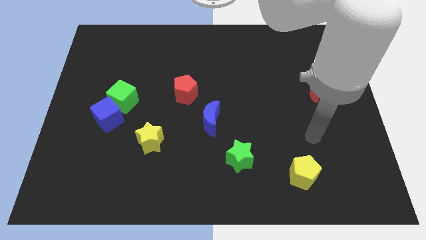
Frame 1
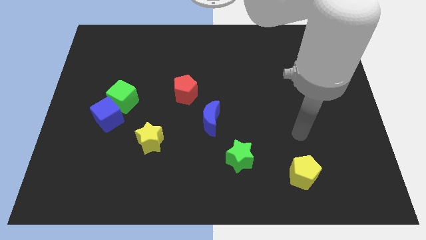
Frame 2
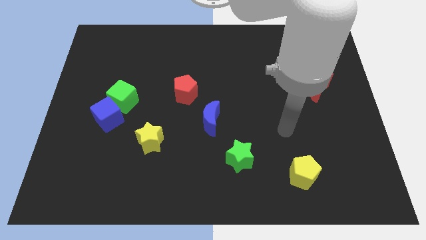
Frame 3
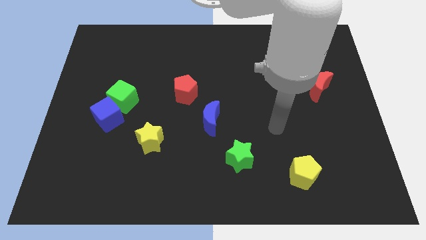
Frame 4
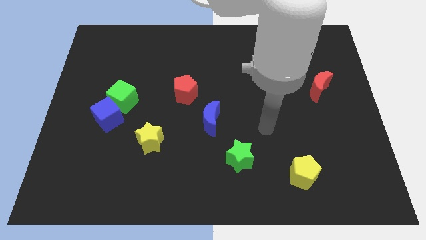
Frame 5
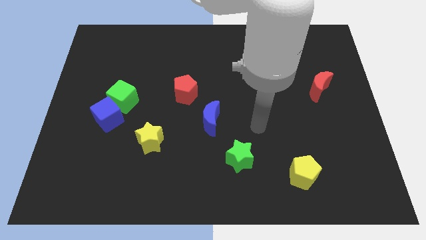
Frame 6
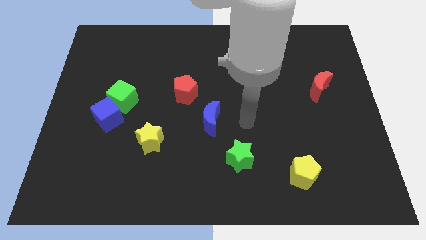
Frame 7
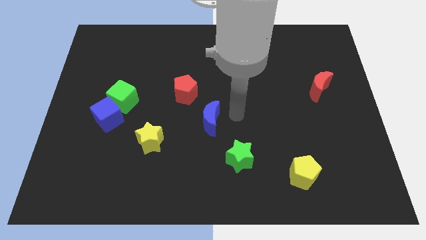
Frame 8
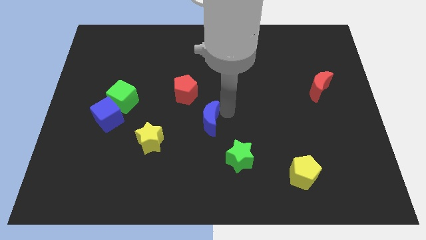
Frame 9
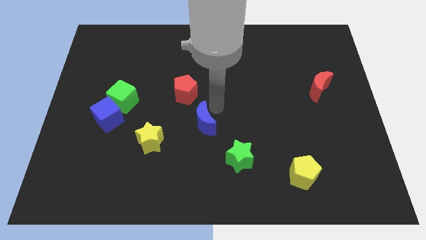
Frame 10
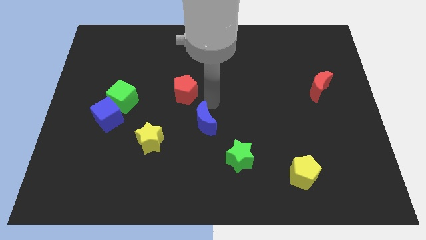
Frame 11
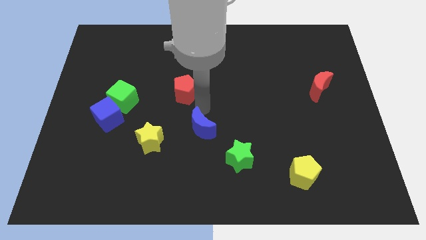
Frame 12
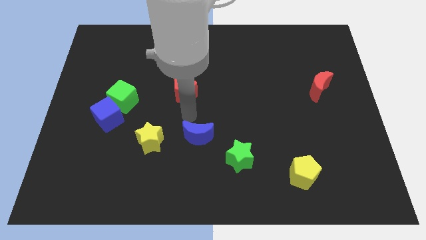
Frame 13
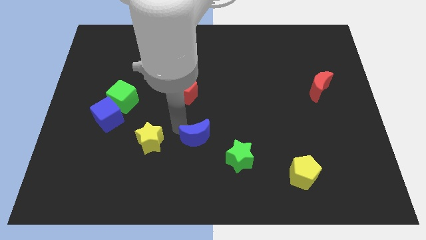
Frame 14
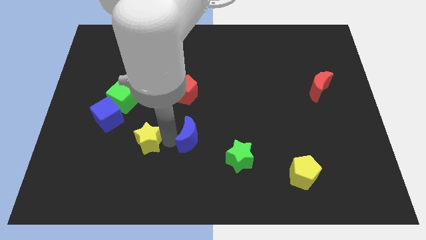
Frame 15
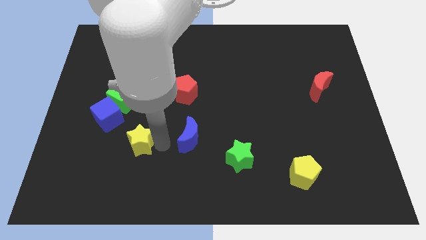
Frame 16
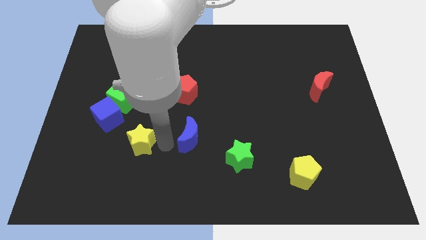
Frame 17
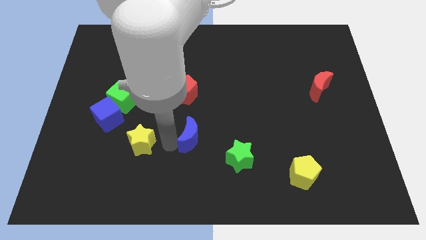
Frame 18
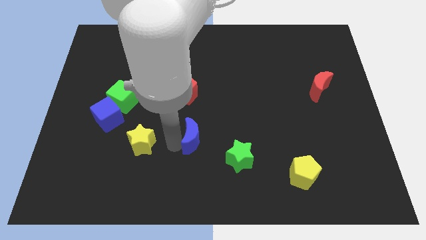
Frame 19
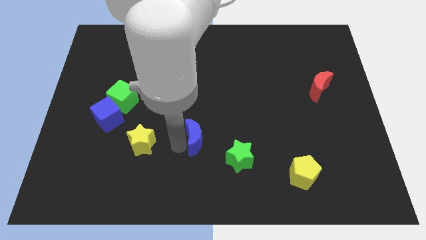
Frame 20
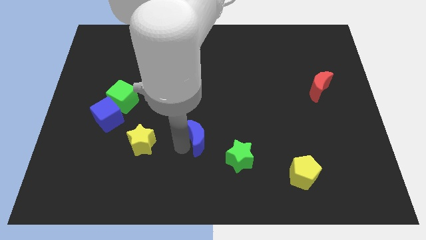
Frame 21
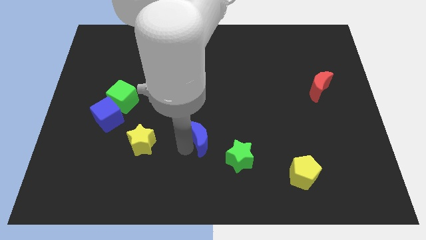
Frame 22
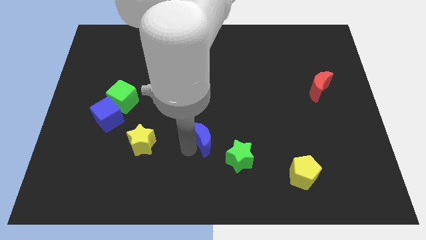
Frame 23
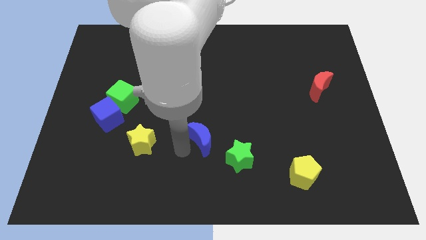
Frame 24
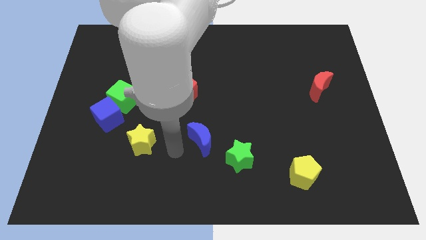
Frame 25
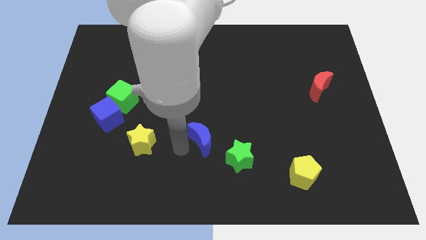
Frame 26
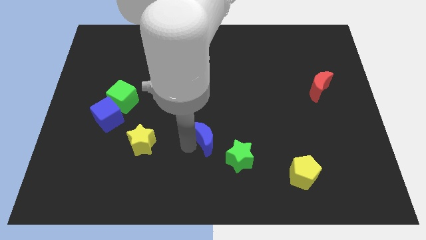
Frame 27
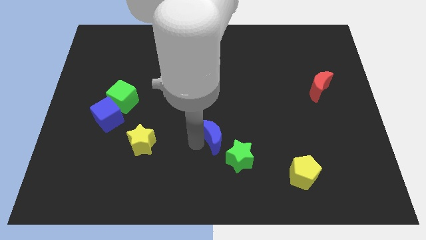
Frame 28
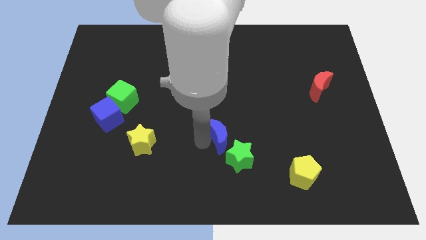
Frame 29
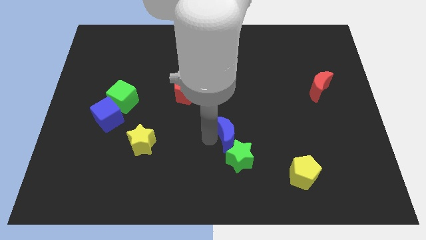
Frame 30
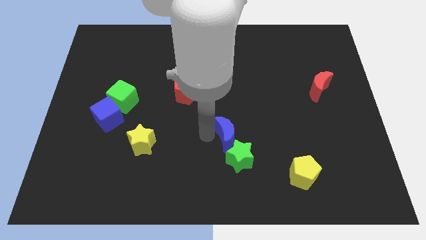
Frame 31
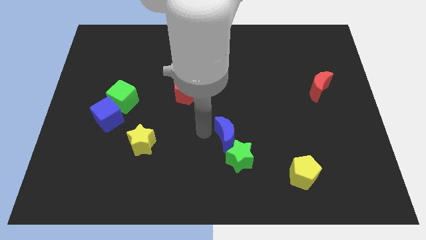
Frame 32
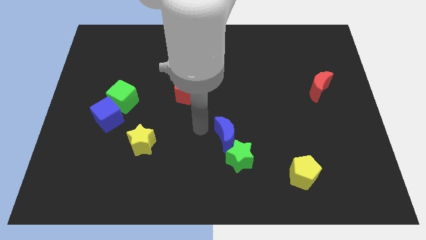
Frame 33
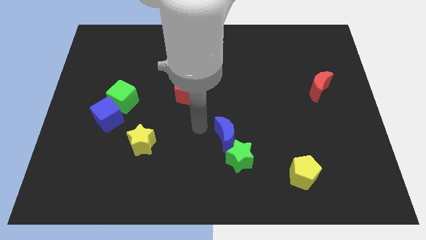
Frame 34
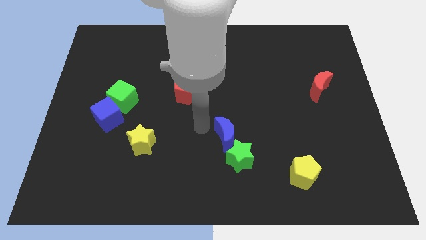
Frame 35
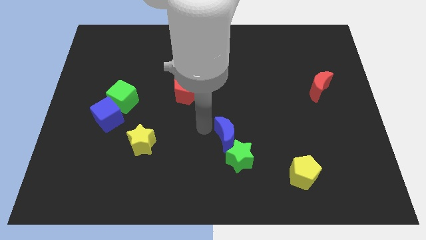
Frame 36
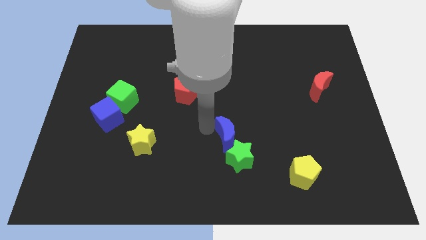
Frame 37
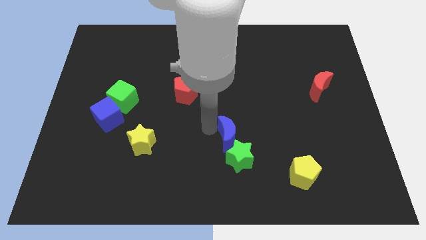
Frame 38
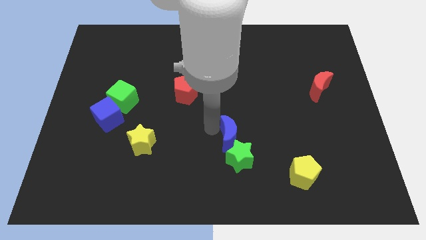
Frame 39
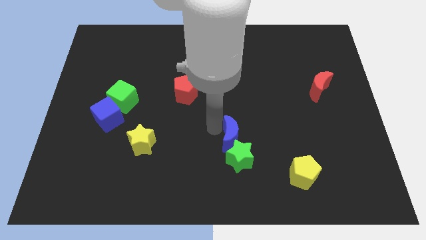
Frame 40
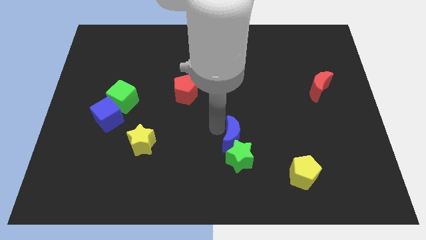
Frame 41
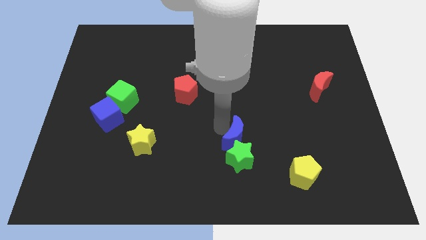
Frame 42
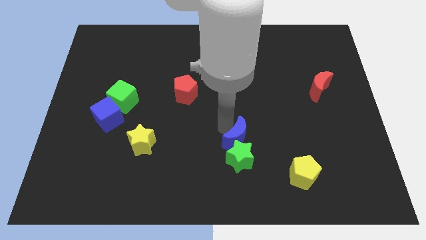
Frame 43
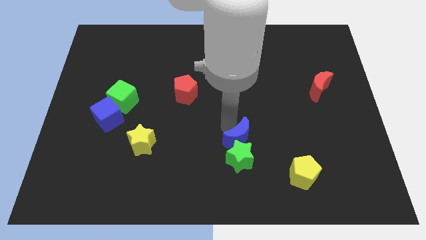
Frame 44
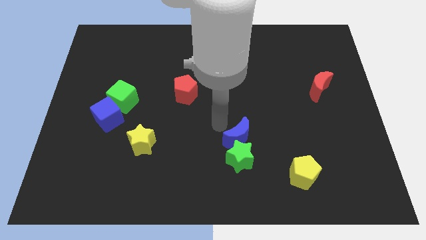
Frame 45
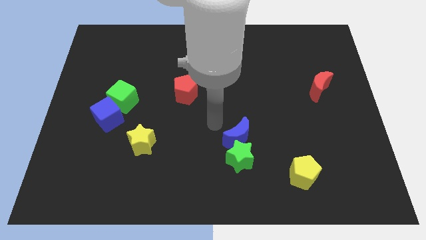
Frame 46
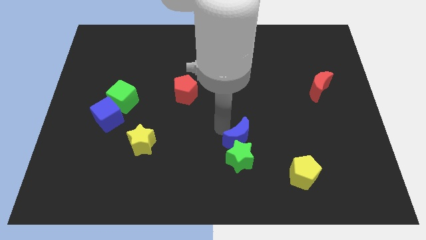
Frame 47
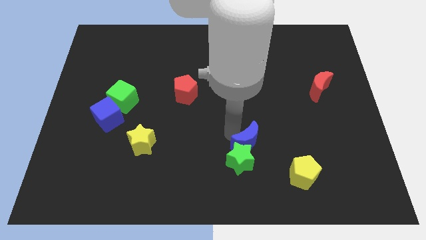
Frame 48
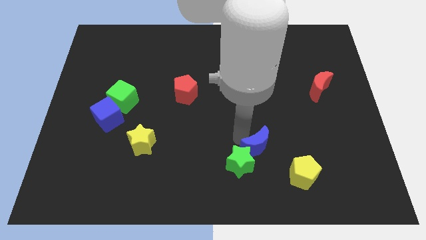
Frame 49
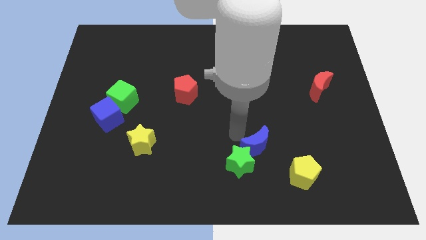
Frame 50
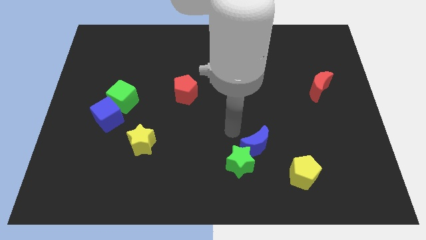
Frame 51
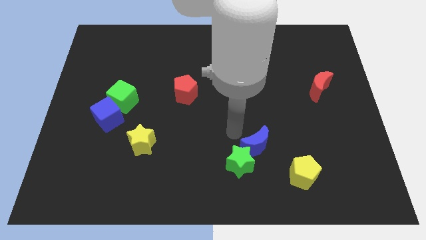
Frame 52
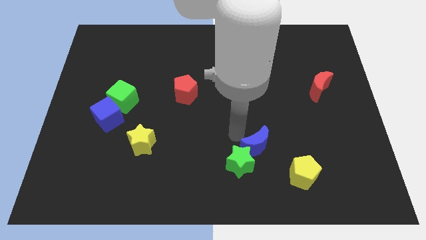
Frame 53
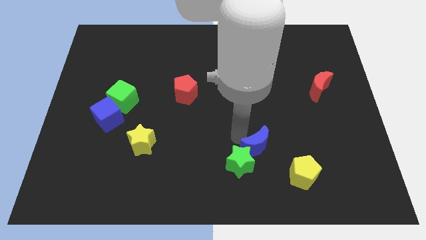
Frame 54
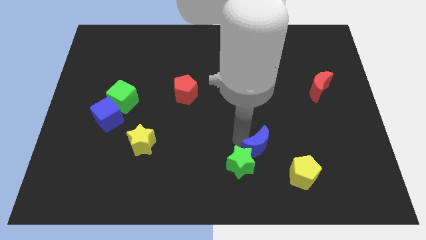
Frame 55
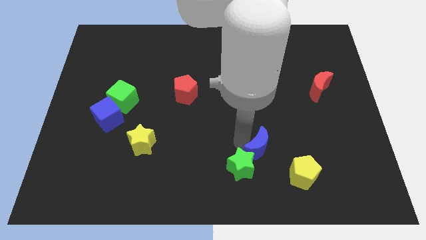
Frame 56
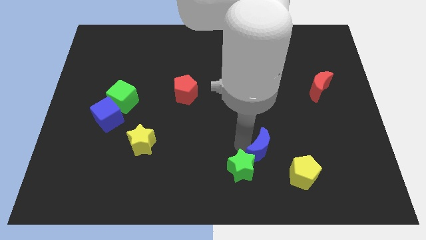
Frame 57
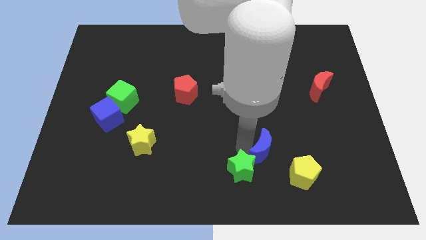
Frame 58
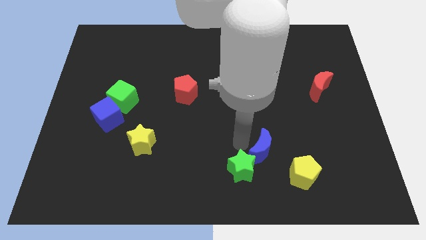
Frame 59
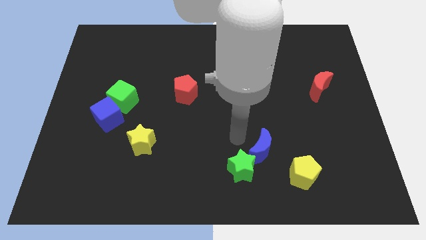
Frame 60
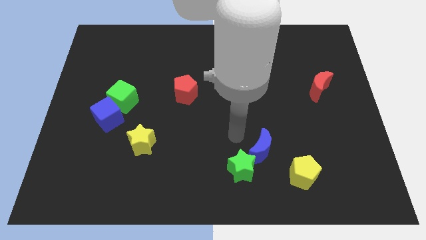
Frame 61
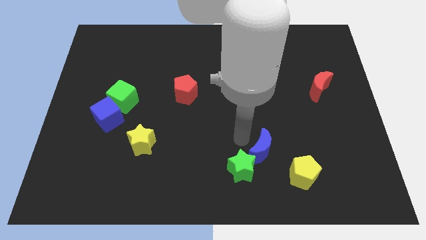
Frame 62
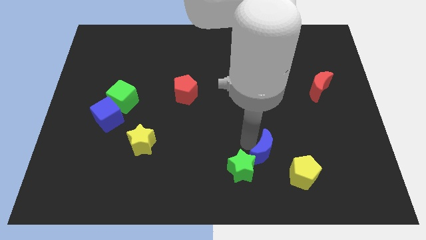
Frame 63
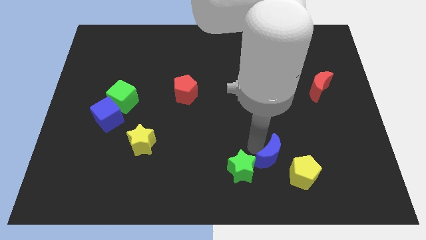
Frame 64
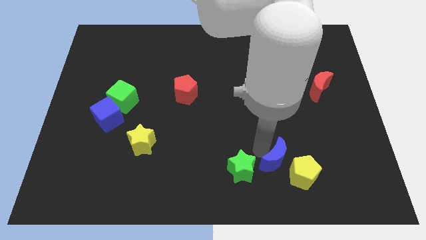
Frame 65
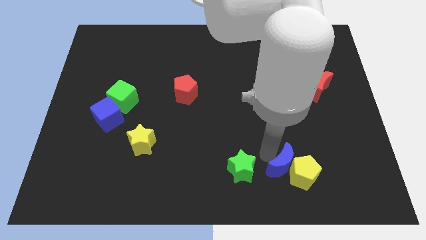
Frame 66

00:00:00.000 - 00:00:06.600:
slide the blue moon next to the yellow pentagon

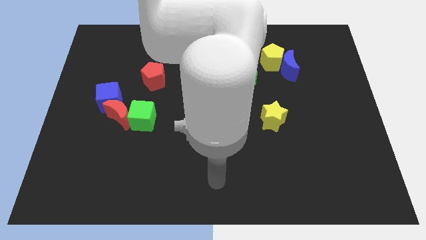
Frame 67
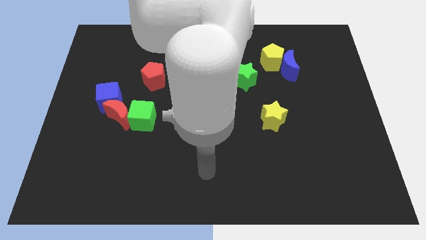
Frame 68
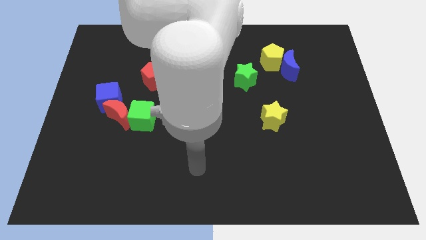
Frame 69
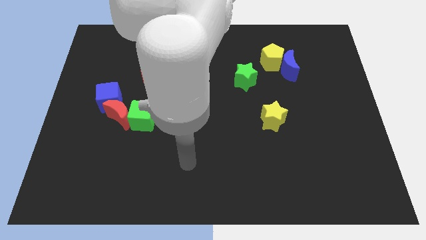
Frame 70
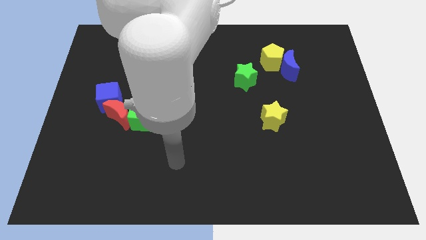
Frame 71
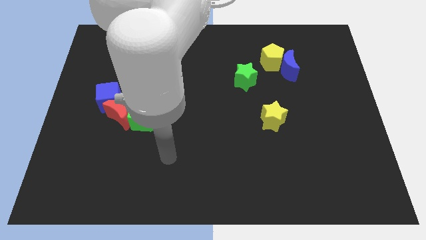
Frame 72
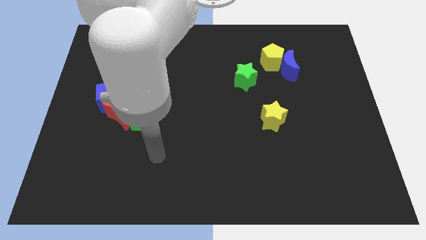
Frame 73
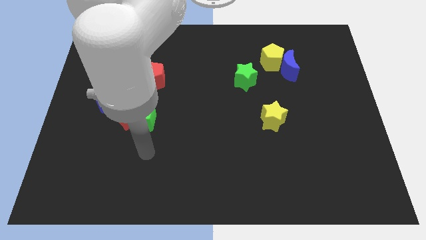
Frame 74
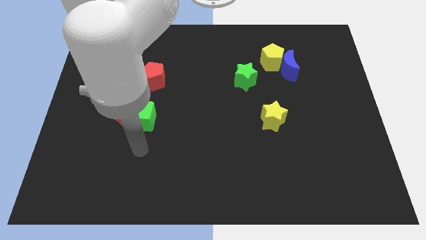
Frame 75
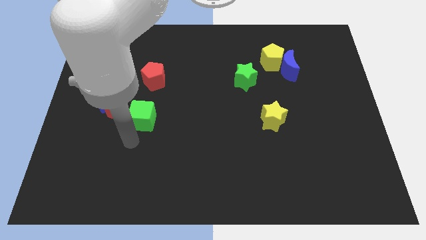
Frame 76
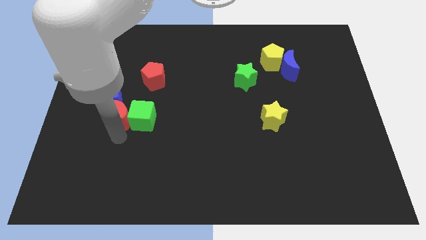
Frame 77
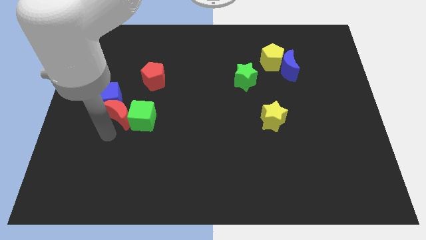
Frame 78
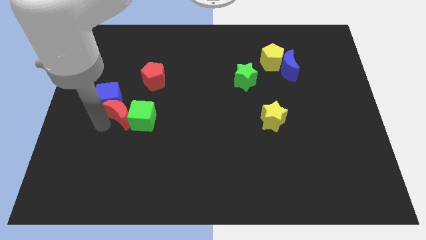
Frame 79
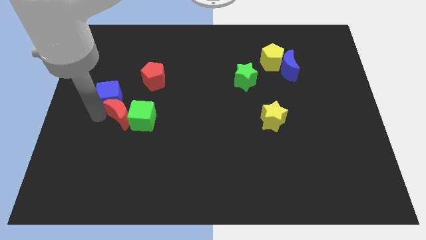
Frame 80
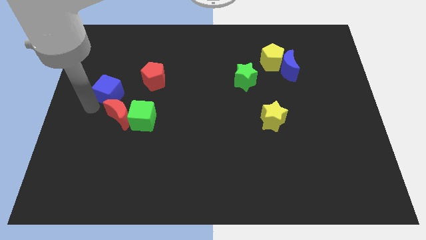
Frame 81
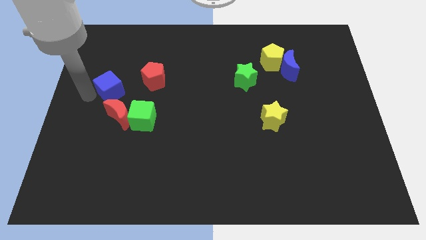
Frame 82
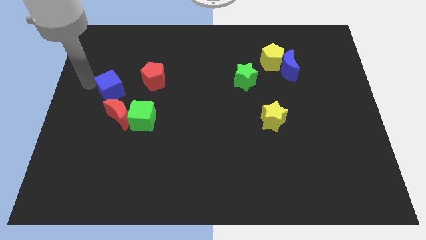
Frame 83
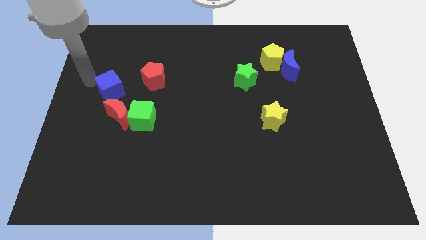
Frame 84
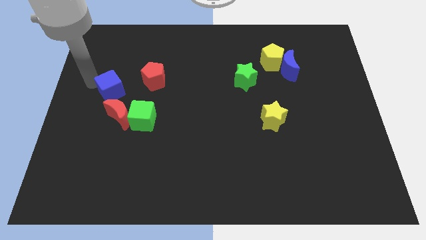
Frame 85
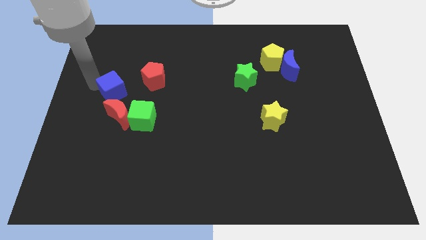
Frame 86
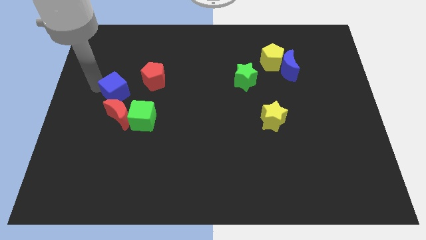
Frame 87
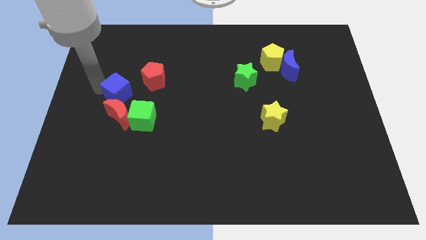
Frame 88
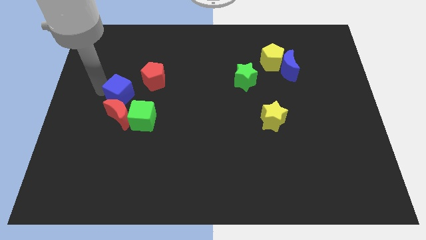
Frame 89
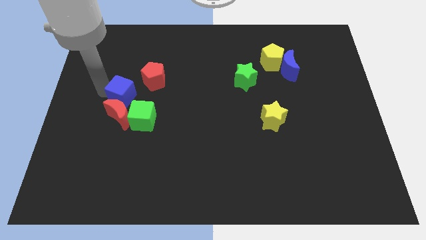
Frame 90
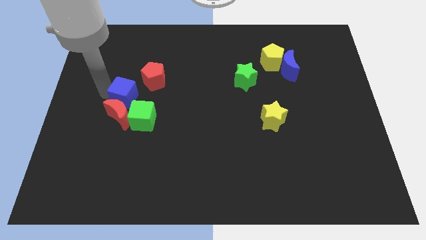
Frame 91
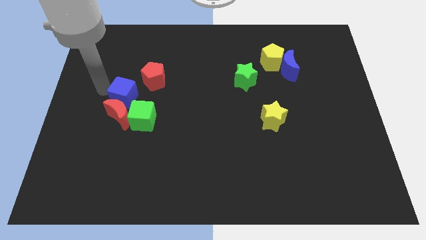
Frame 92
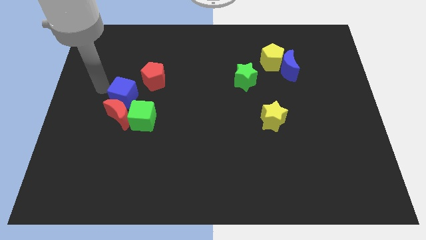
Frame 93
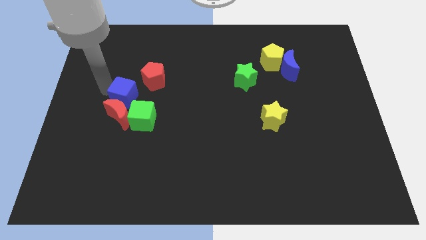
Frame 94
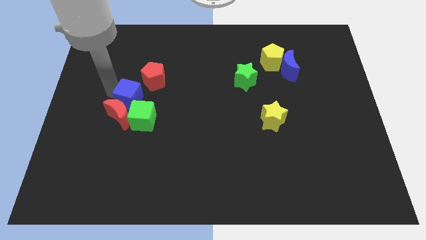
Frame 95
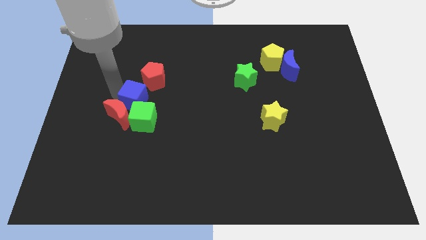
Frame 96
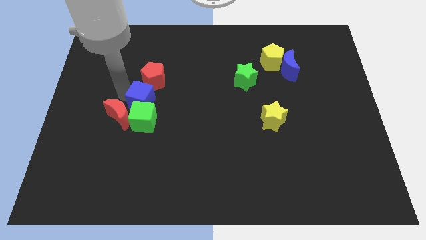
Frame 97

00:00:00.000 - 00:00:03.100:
push the blue cube next to the green cube
